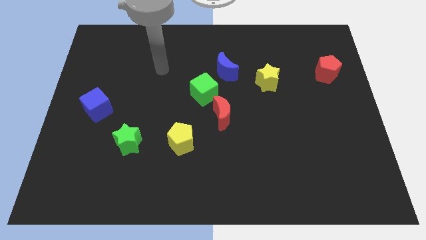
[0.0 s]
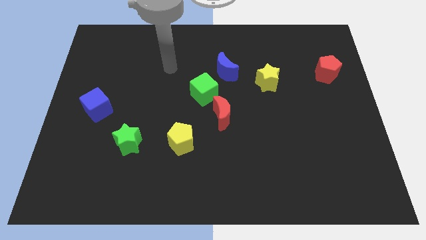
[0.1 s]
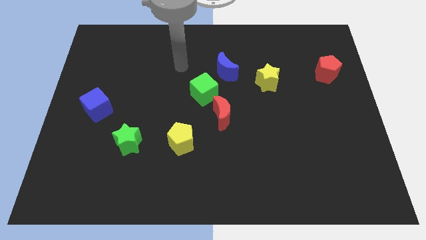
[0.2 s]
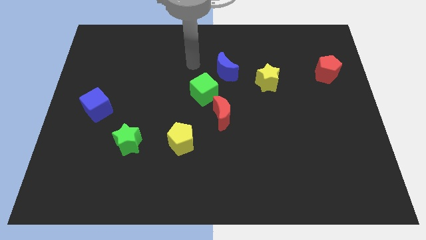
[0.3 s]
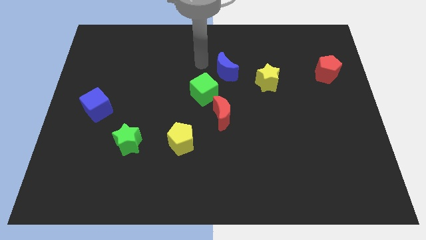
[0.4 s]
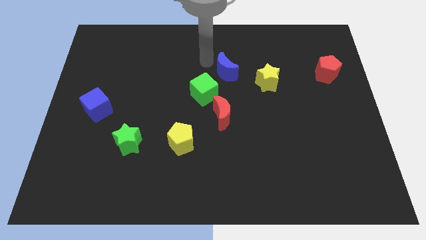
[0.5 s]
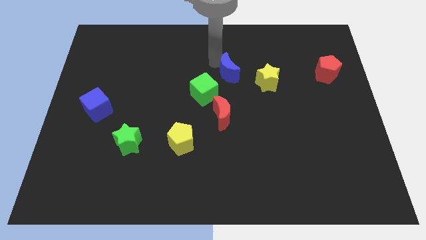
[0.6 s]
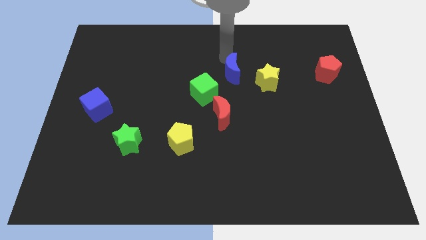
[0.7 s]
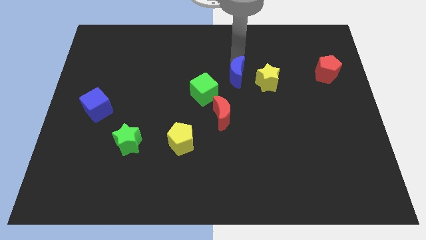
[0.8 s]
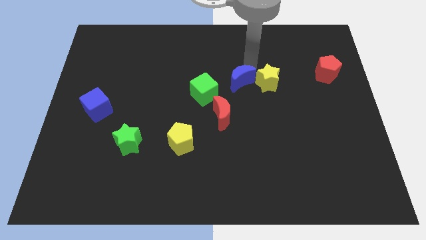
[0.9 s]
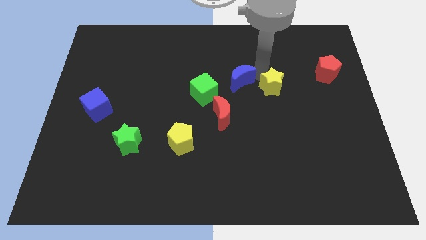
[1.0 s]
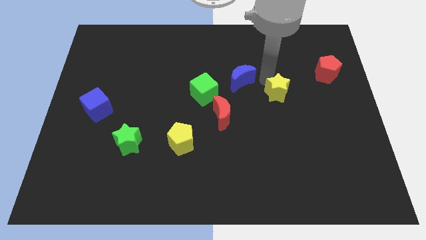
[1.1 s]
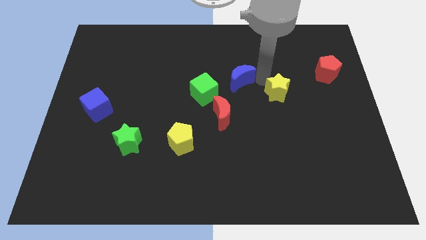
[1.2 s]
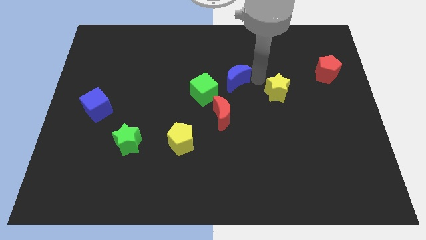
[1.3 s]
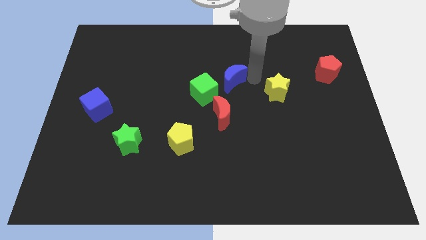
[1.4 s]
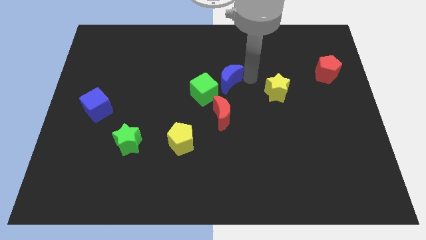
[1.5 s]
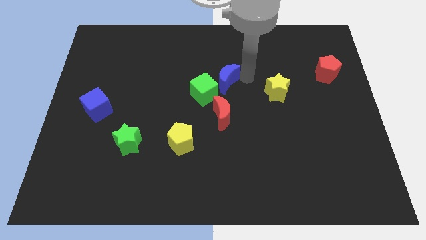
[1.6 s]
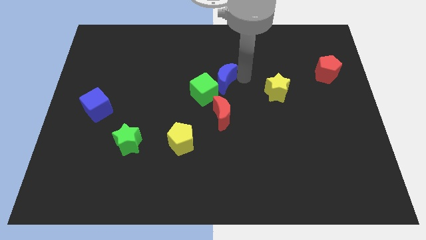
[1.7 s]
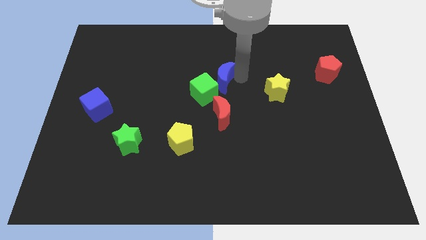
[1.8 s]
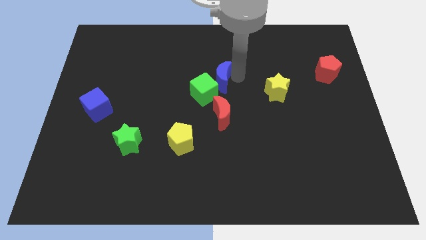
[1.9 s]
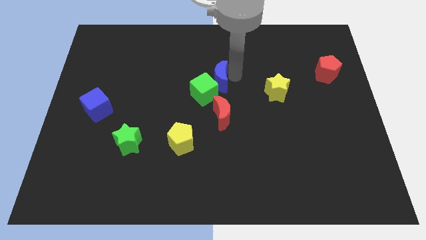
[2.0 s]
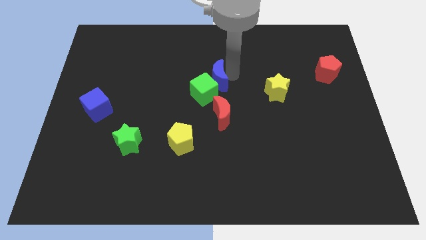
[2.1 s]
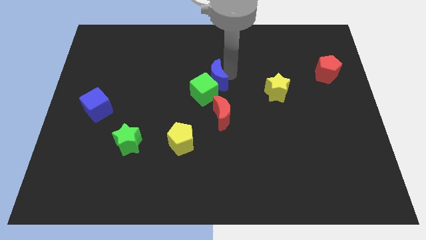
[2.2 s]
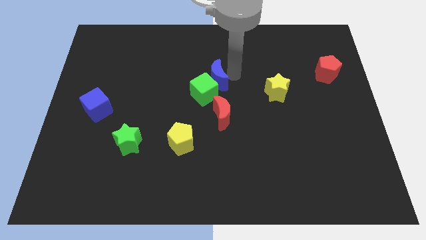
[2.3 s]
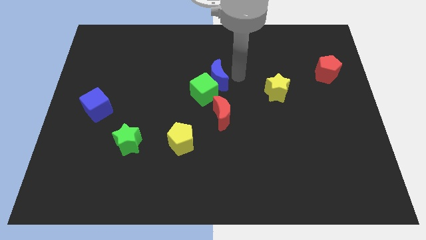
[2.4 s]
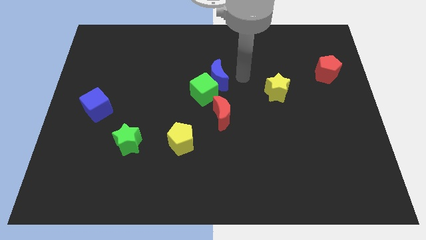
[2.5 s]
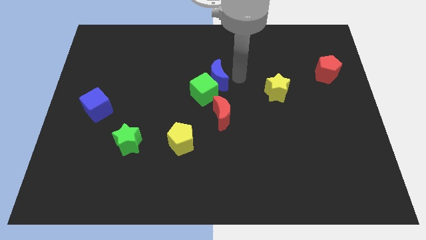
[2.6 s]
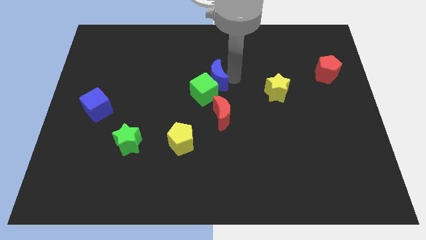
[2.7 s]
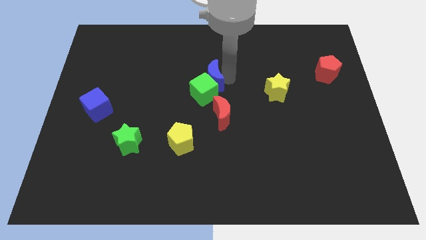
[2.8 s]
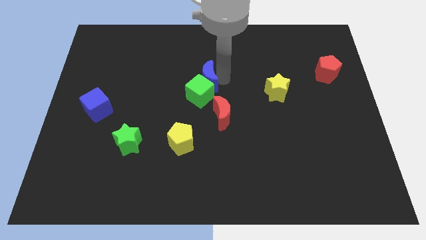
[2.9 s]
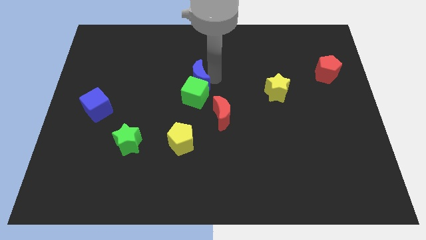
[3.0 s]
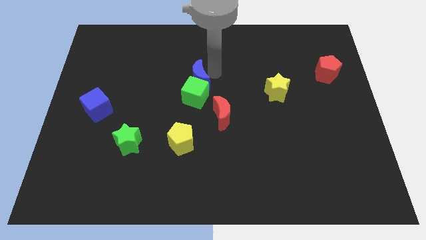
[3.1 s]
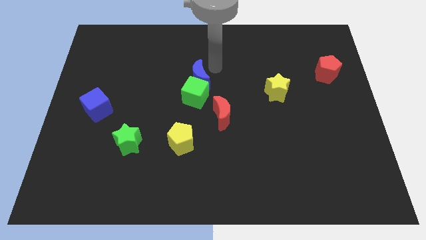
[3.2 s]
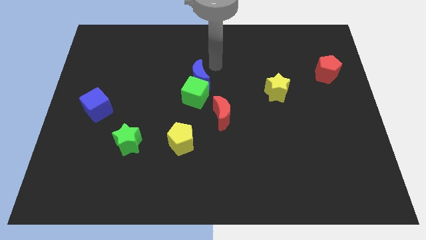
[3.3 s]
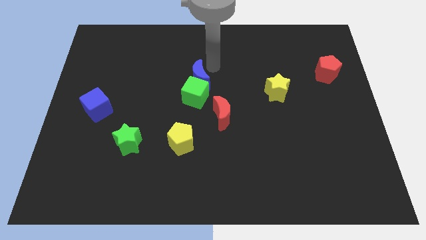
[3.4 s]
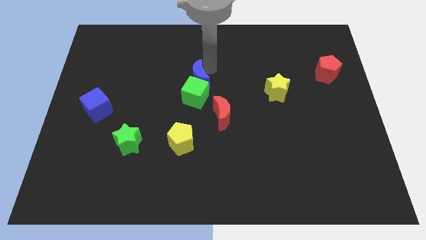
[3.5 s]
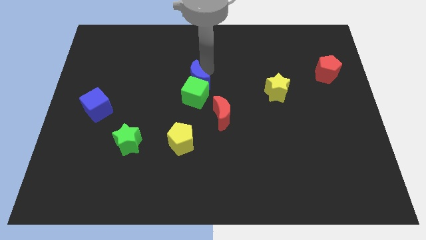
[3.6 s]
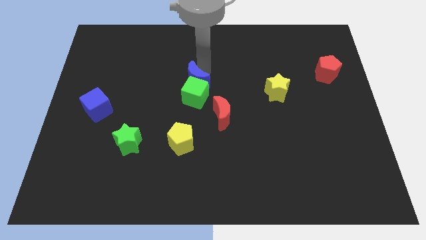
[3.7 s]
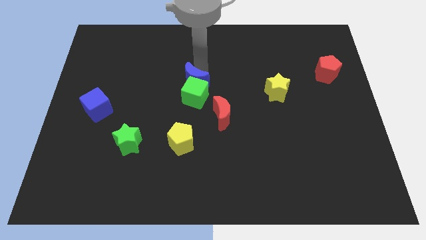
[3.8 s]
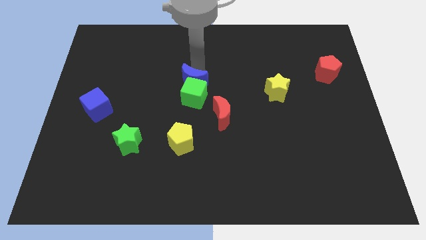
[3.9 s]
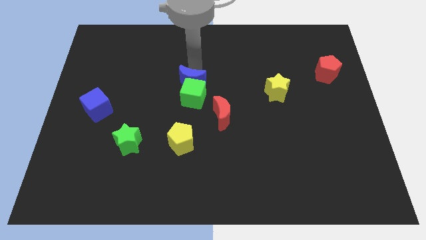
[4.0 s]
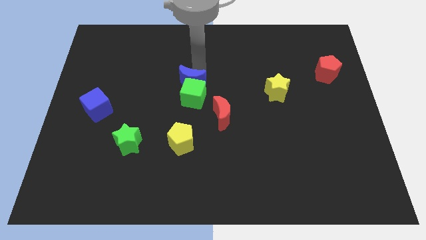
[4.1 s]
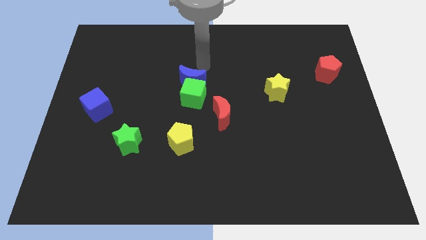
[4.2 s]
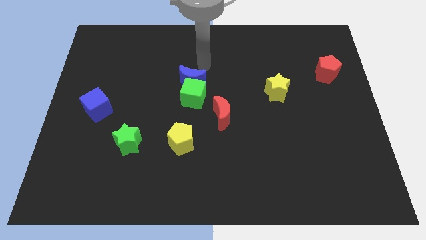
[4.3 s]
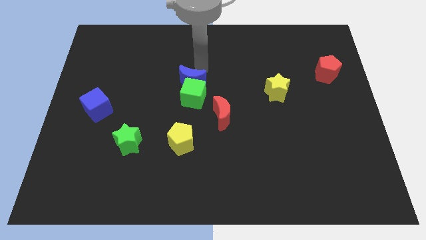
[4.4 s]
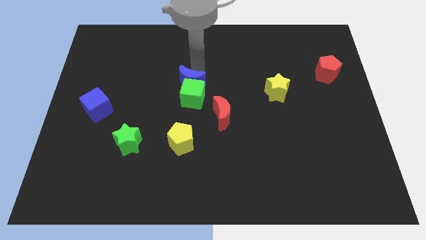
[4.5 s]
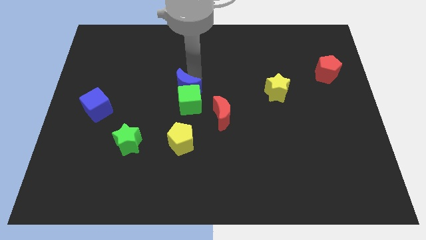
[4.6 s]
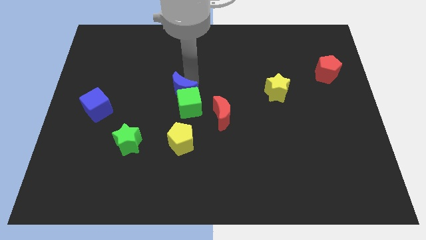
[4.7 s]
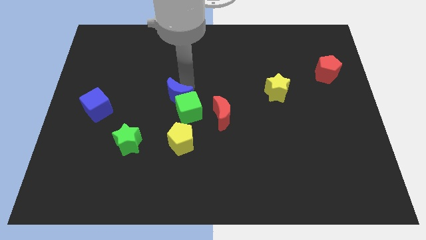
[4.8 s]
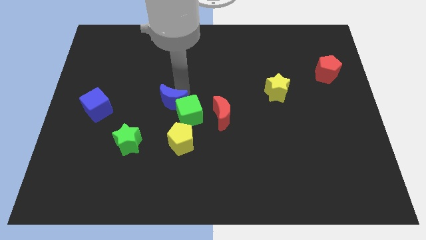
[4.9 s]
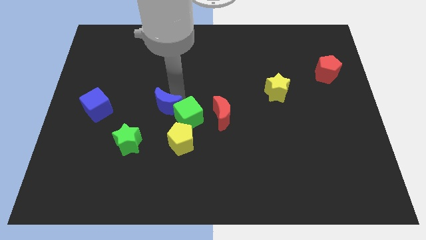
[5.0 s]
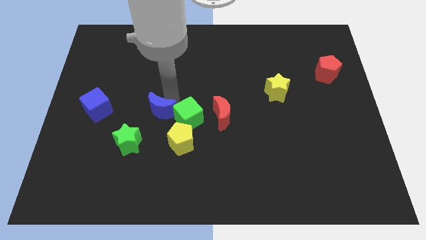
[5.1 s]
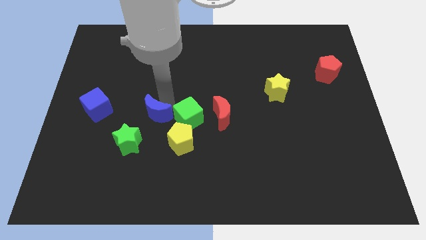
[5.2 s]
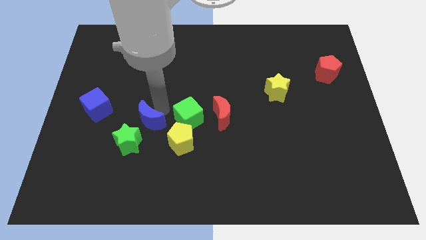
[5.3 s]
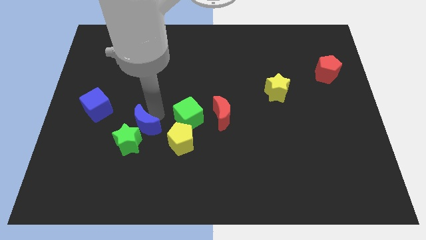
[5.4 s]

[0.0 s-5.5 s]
put the blue moon towards the green star

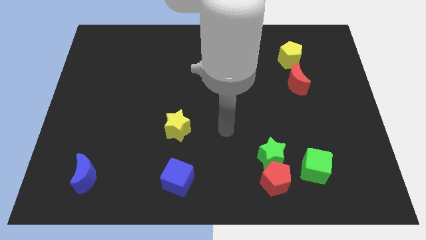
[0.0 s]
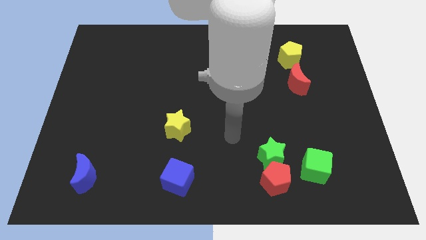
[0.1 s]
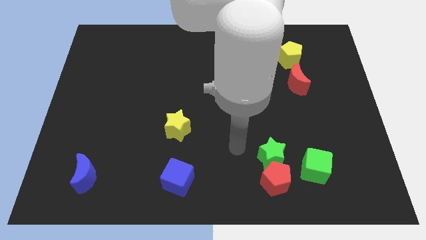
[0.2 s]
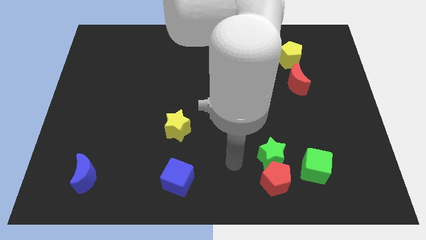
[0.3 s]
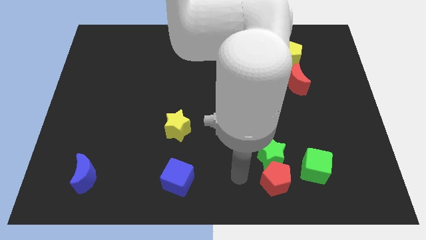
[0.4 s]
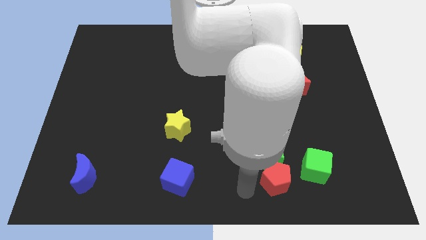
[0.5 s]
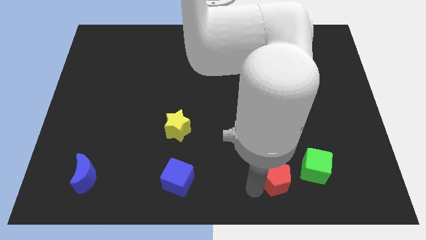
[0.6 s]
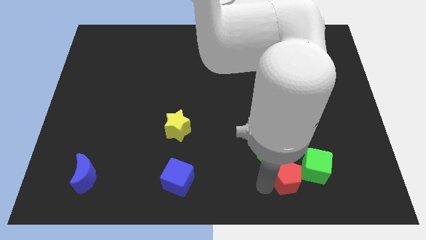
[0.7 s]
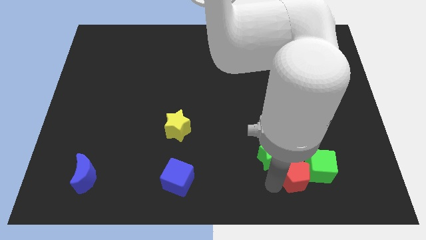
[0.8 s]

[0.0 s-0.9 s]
push the red pentagon to the green cube

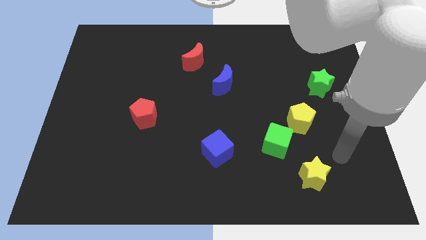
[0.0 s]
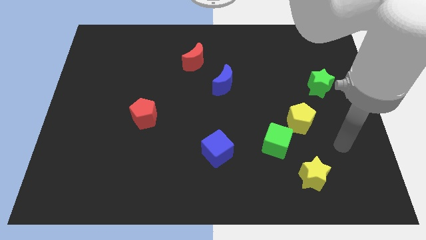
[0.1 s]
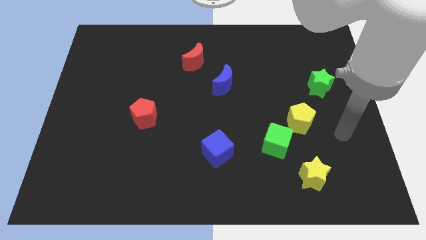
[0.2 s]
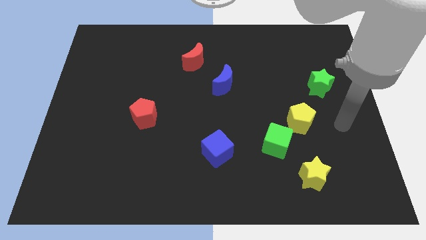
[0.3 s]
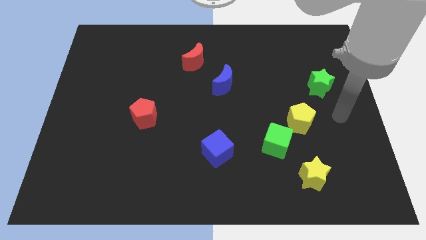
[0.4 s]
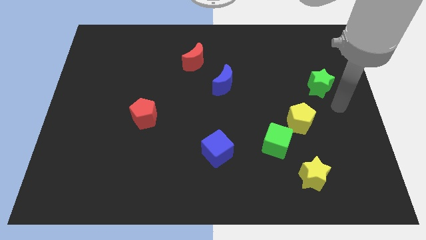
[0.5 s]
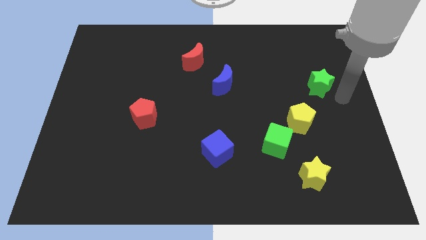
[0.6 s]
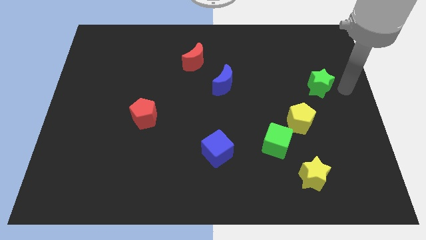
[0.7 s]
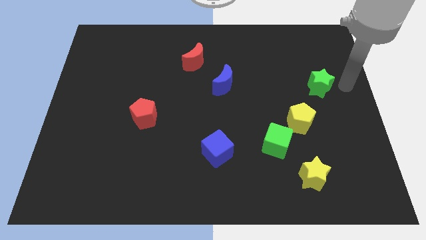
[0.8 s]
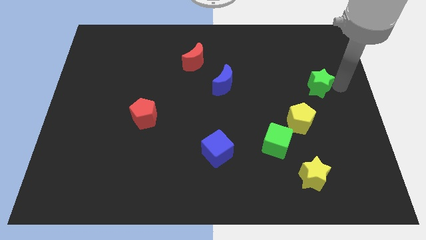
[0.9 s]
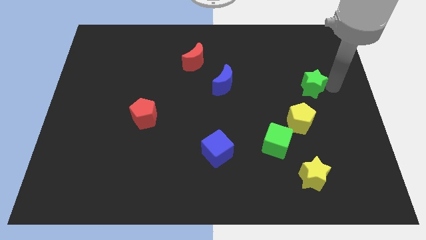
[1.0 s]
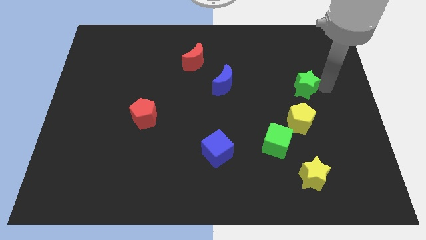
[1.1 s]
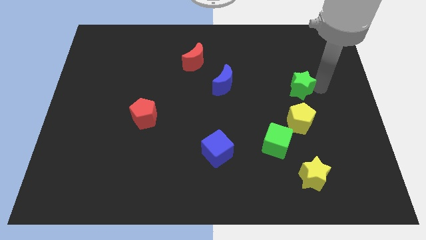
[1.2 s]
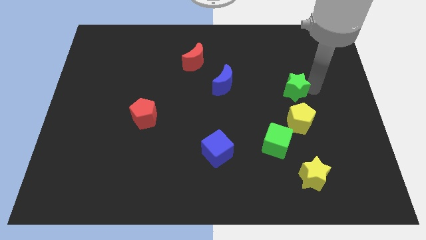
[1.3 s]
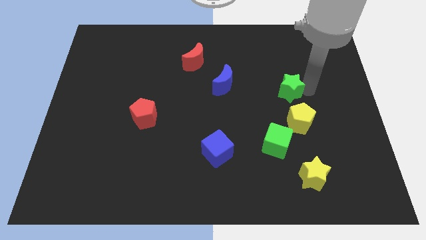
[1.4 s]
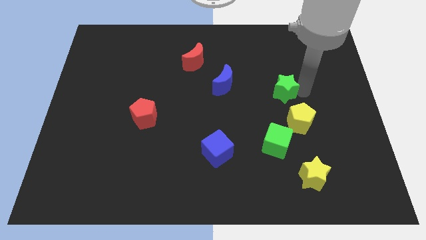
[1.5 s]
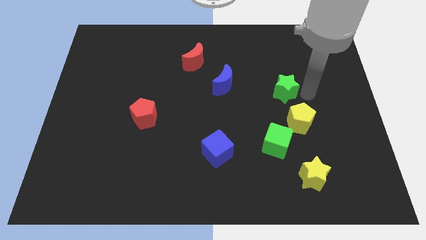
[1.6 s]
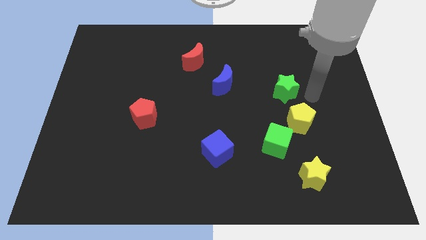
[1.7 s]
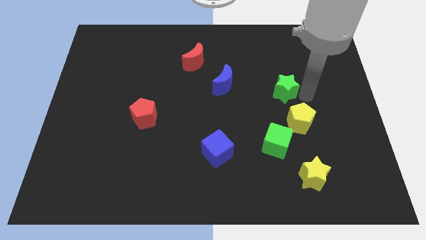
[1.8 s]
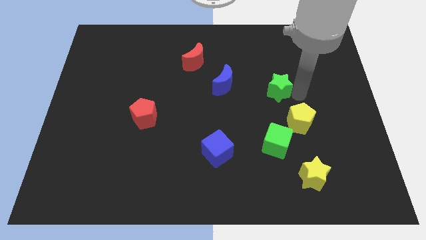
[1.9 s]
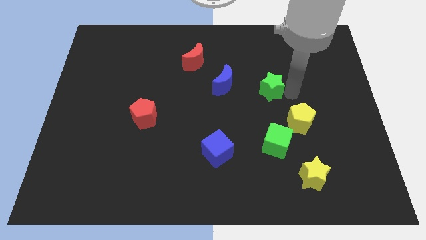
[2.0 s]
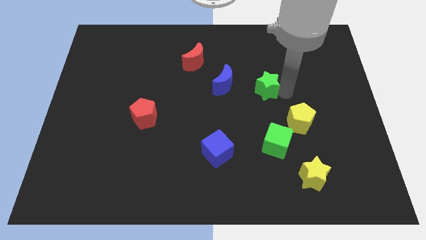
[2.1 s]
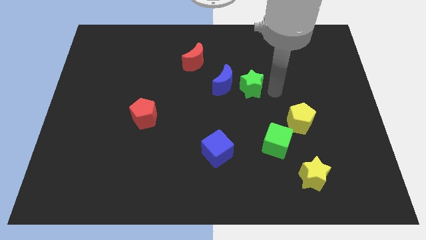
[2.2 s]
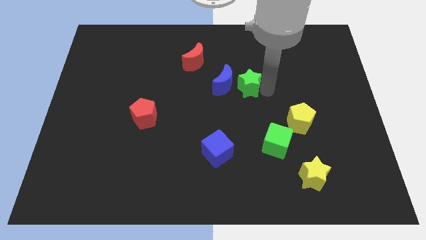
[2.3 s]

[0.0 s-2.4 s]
push the green star towards the blue moon
